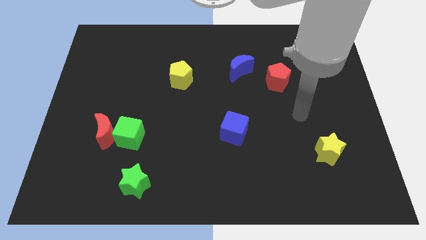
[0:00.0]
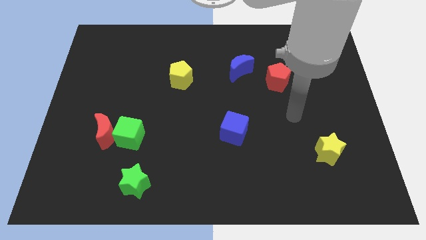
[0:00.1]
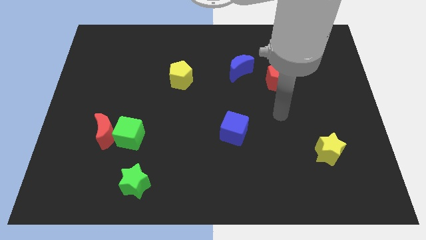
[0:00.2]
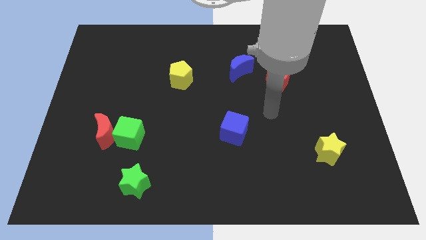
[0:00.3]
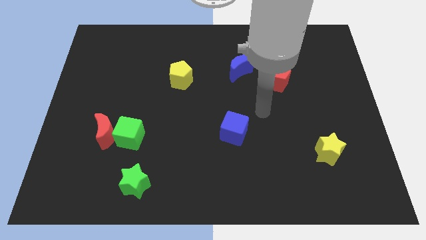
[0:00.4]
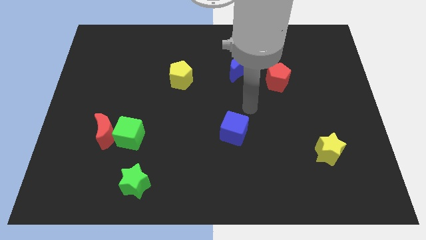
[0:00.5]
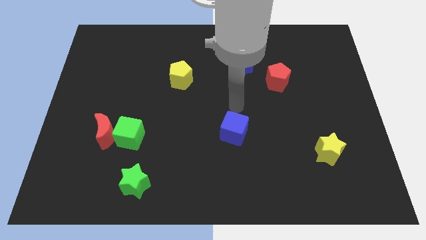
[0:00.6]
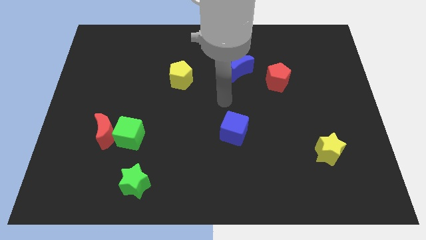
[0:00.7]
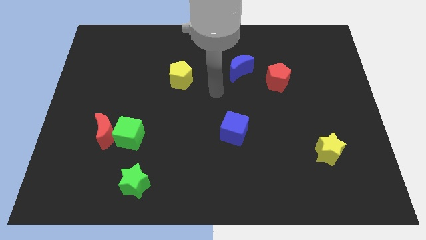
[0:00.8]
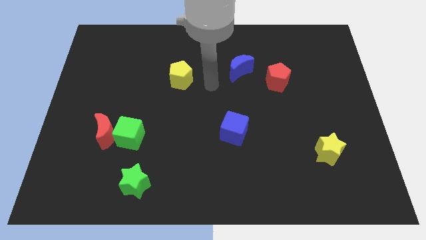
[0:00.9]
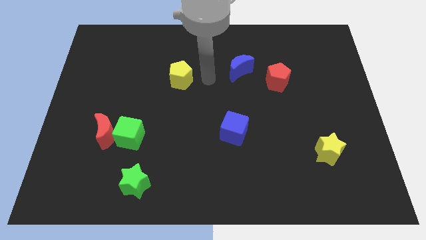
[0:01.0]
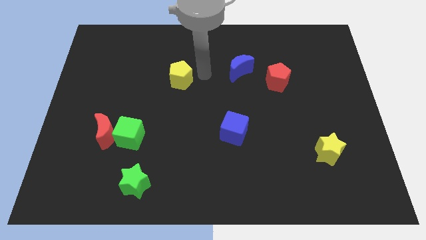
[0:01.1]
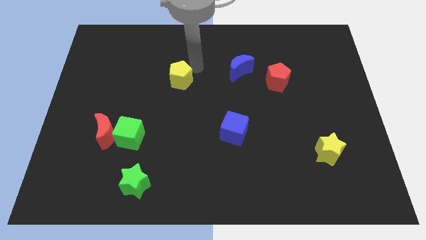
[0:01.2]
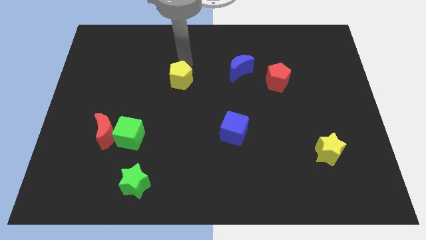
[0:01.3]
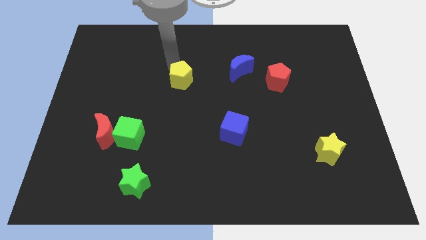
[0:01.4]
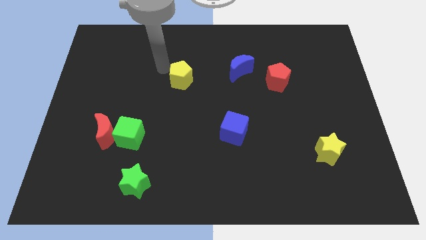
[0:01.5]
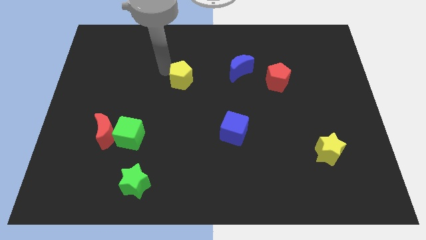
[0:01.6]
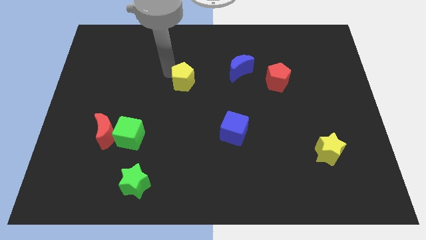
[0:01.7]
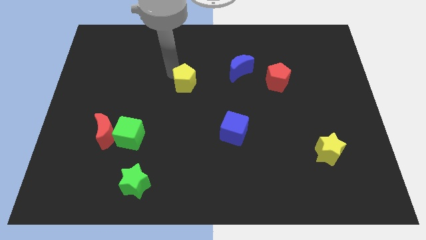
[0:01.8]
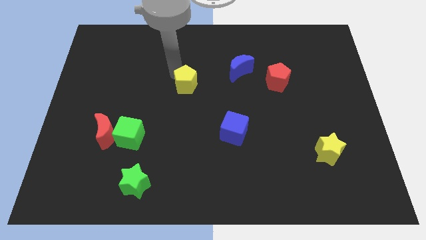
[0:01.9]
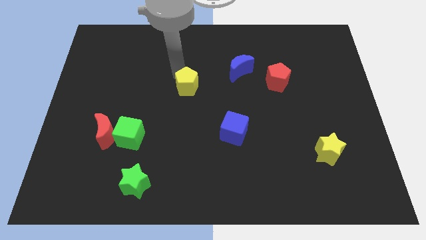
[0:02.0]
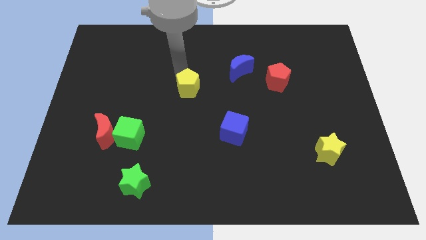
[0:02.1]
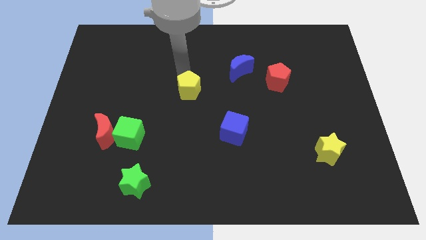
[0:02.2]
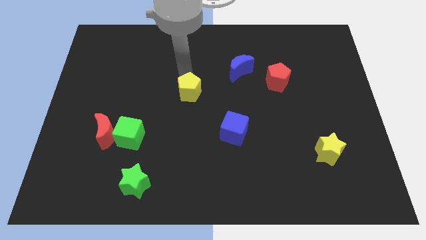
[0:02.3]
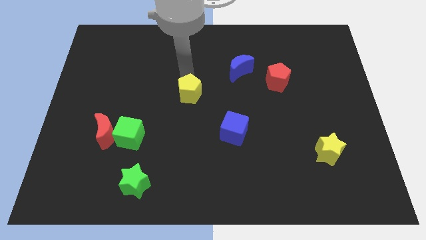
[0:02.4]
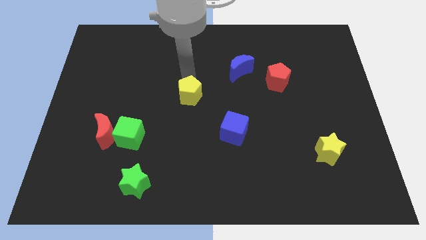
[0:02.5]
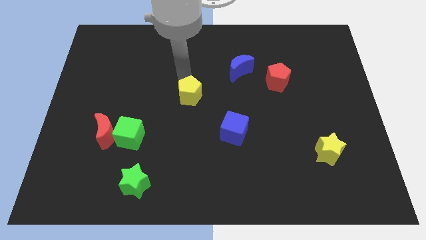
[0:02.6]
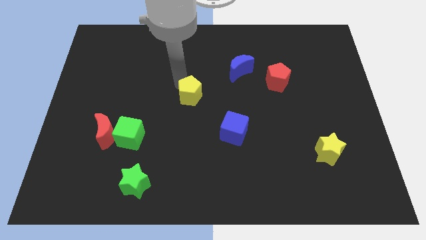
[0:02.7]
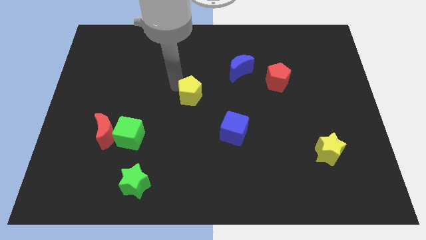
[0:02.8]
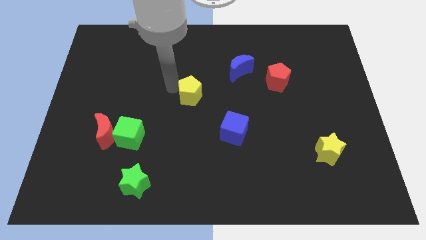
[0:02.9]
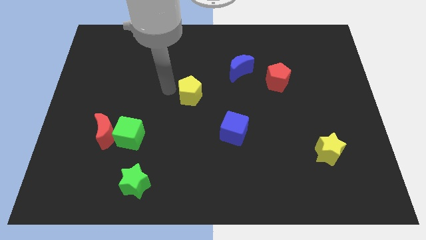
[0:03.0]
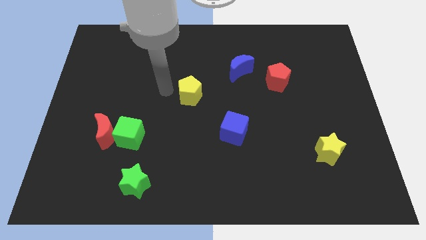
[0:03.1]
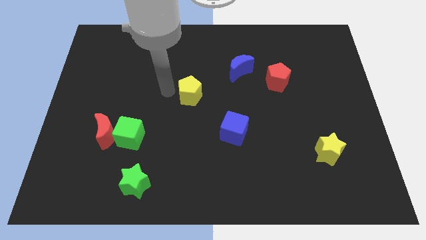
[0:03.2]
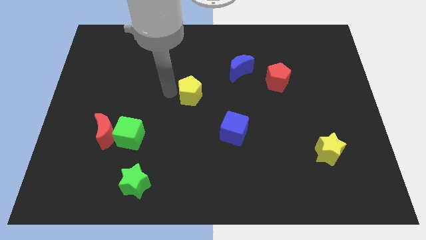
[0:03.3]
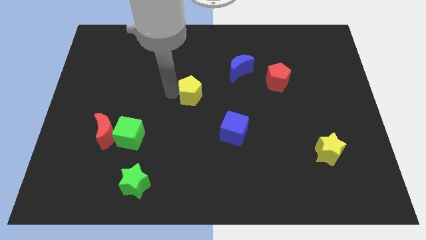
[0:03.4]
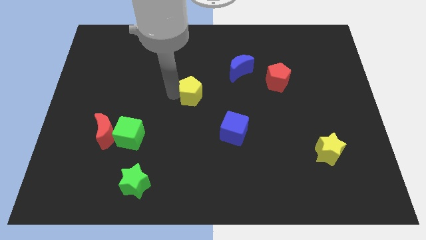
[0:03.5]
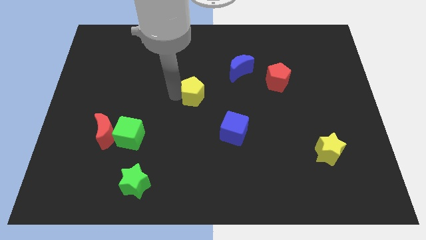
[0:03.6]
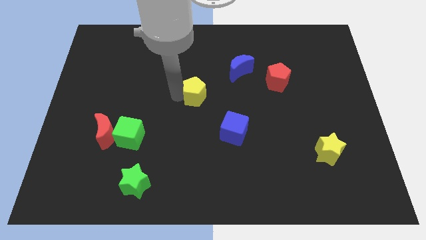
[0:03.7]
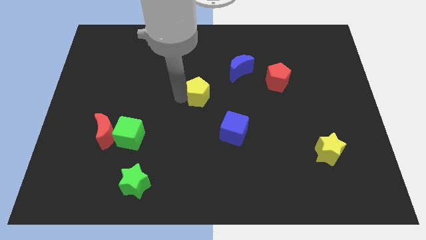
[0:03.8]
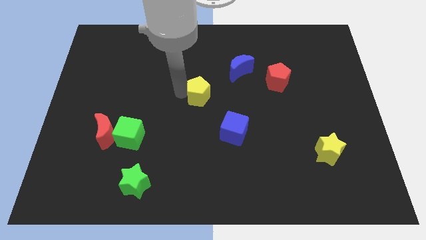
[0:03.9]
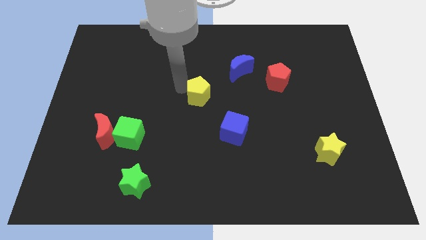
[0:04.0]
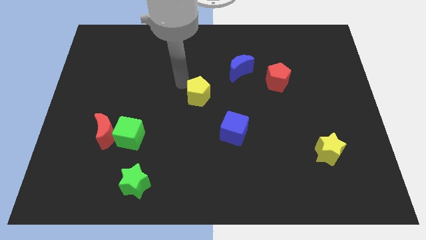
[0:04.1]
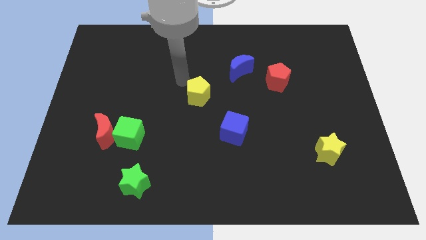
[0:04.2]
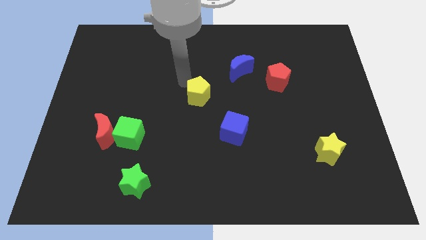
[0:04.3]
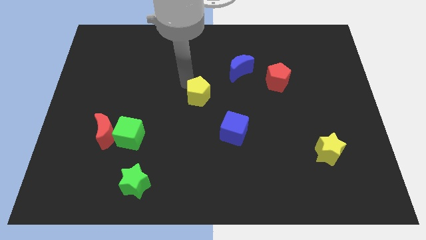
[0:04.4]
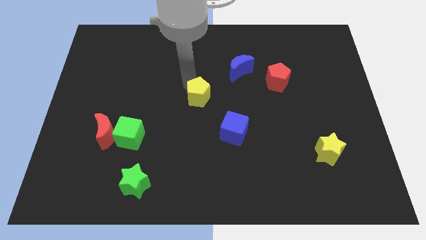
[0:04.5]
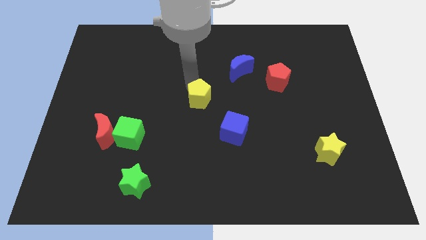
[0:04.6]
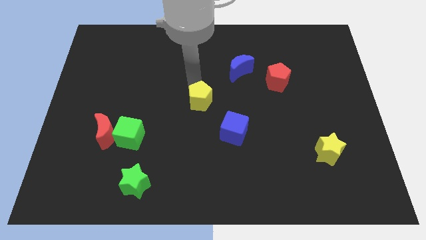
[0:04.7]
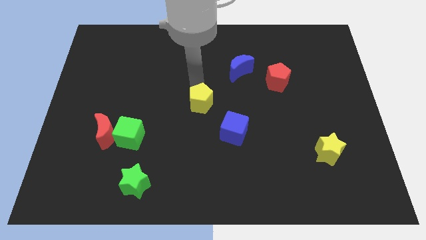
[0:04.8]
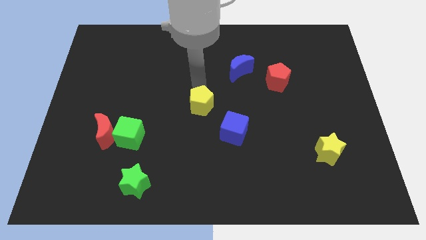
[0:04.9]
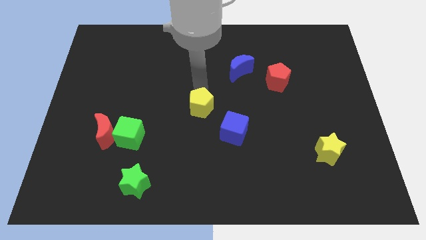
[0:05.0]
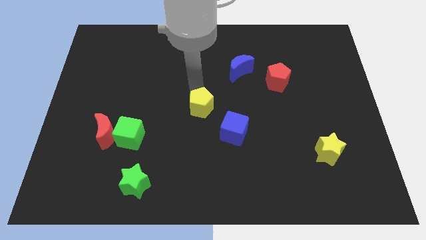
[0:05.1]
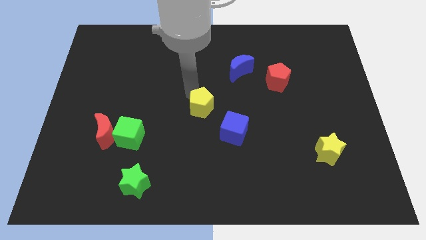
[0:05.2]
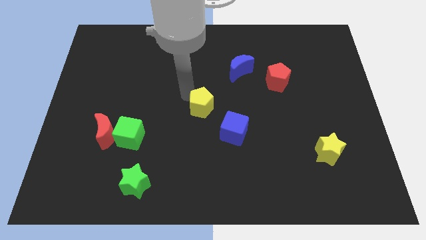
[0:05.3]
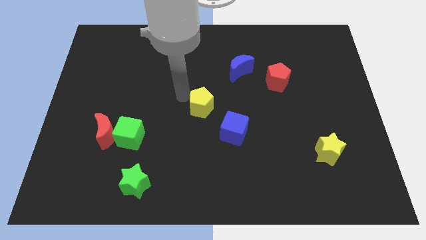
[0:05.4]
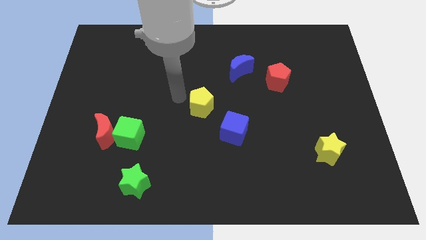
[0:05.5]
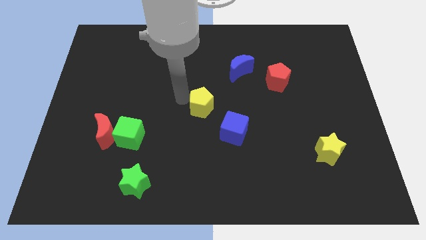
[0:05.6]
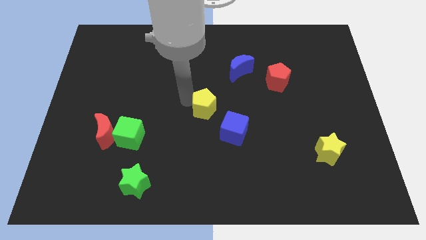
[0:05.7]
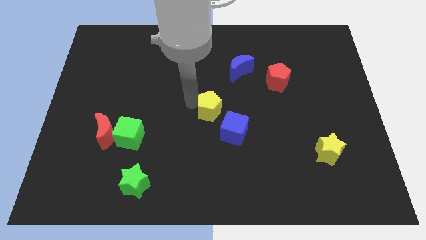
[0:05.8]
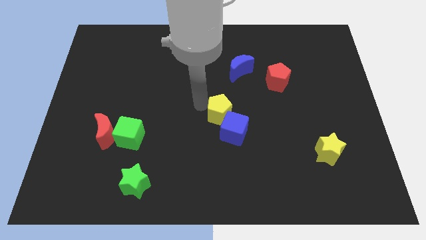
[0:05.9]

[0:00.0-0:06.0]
move the yellow pentagon next to the blue cube

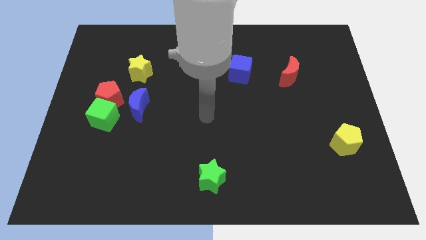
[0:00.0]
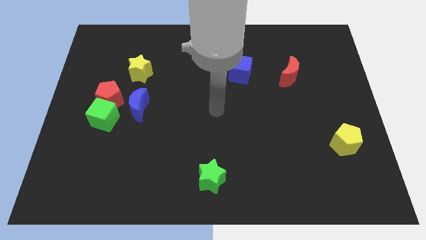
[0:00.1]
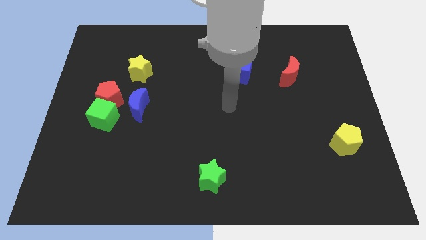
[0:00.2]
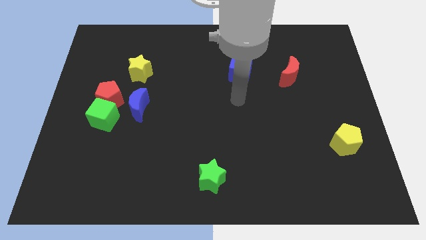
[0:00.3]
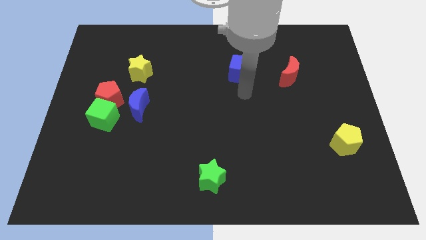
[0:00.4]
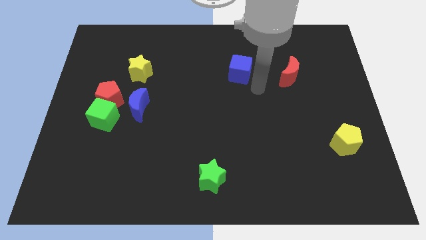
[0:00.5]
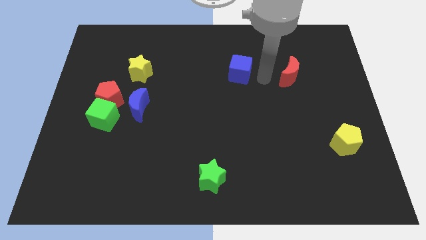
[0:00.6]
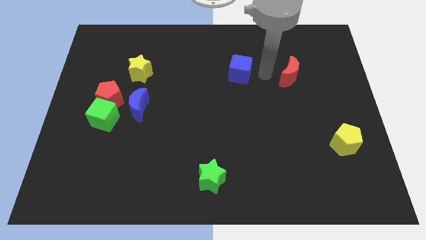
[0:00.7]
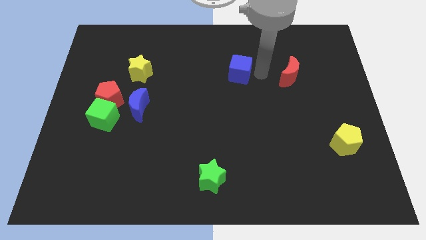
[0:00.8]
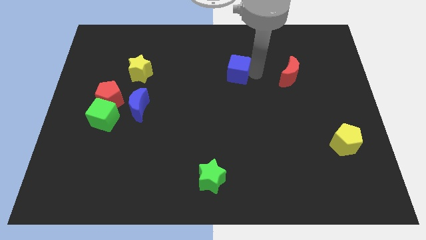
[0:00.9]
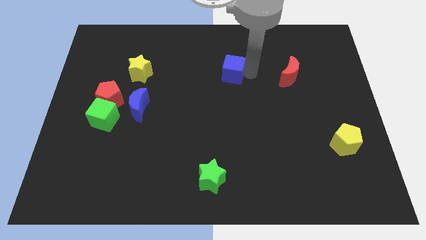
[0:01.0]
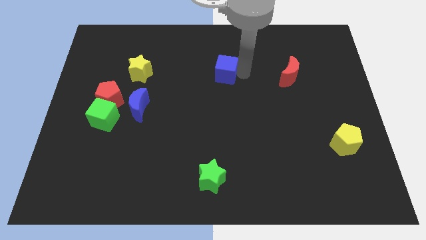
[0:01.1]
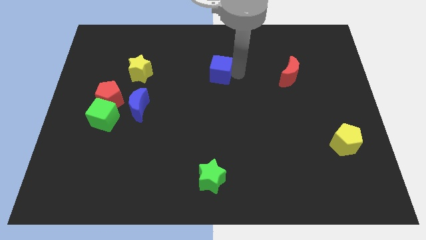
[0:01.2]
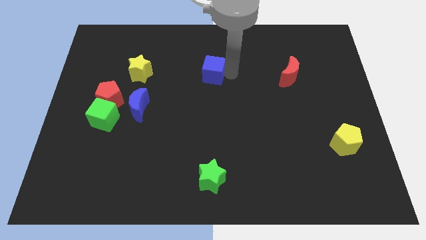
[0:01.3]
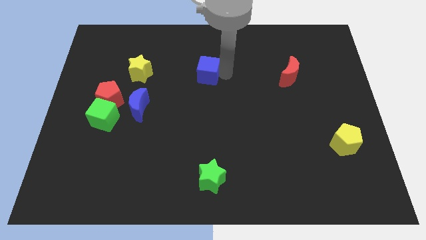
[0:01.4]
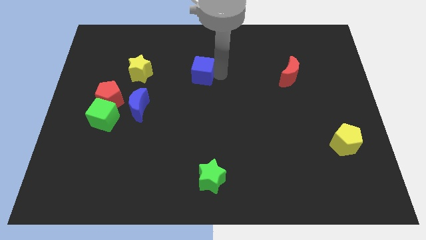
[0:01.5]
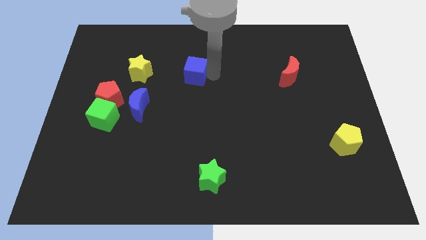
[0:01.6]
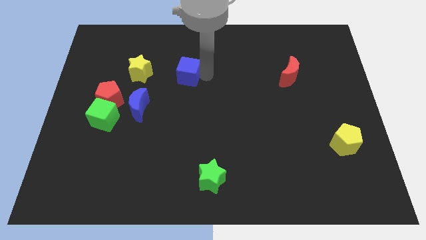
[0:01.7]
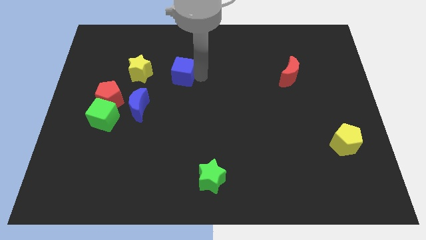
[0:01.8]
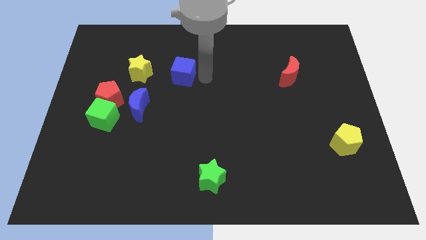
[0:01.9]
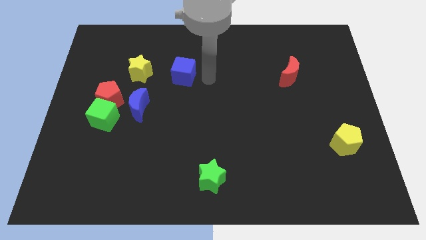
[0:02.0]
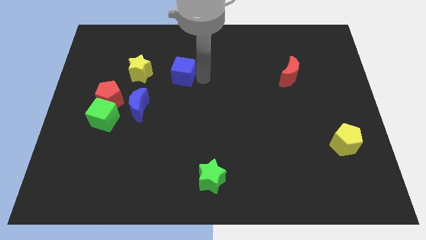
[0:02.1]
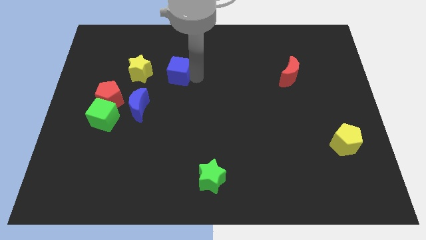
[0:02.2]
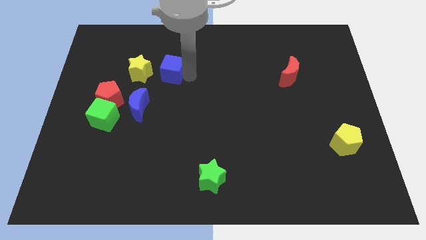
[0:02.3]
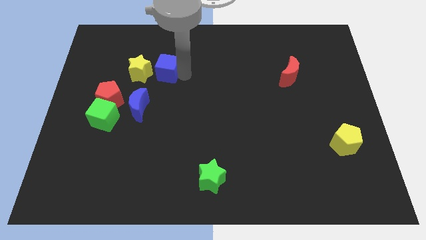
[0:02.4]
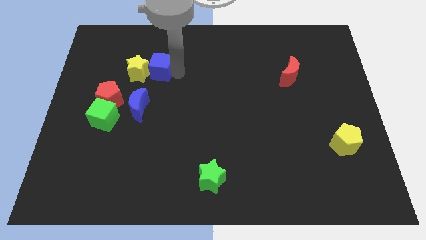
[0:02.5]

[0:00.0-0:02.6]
move the blue cube towards the yellow star
